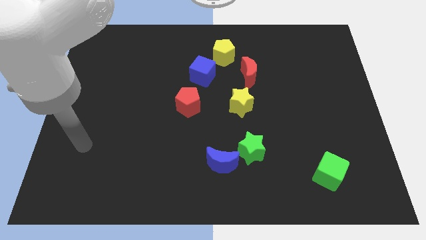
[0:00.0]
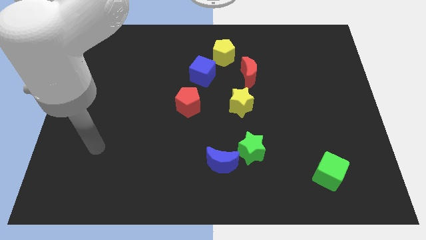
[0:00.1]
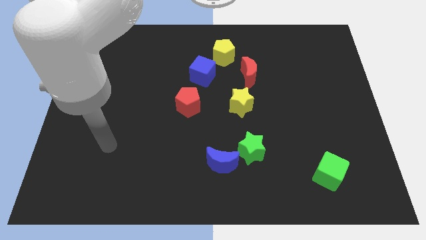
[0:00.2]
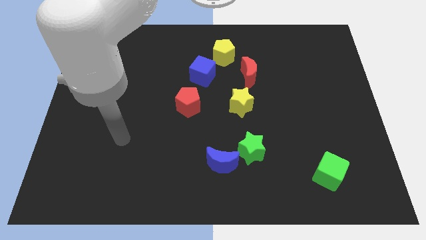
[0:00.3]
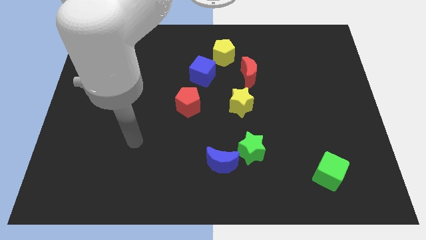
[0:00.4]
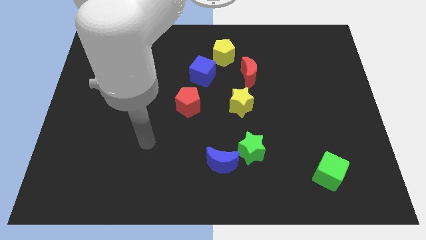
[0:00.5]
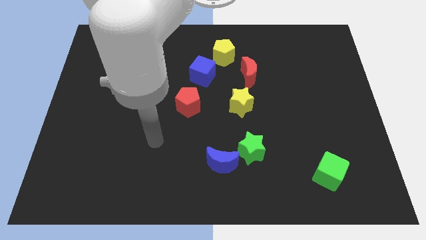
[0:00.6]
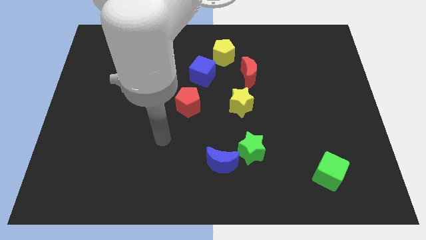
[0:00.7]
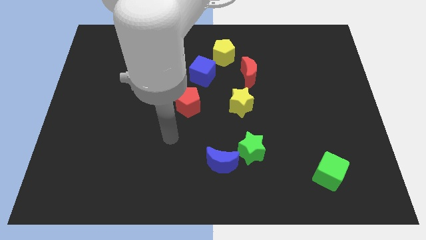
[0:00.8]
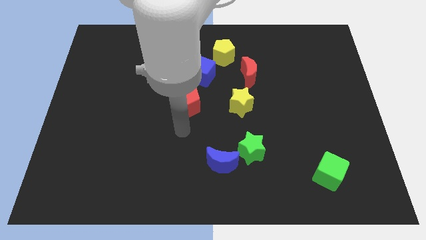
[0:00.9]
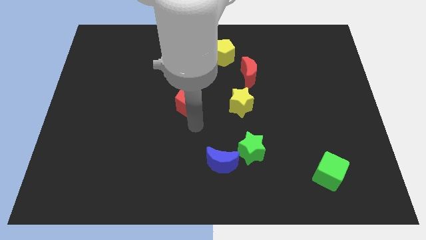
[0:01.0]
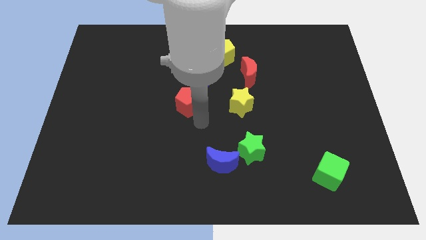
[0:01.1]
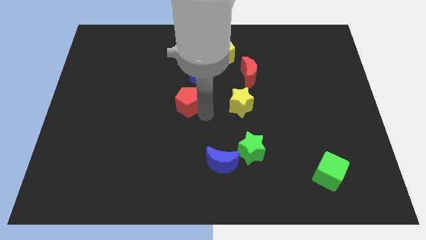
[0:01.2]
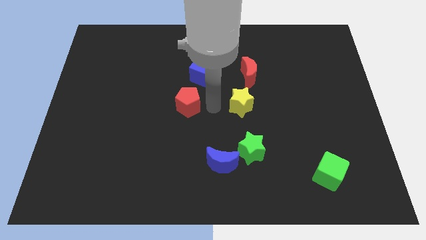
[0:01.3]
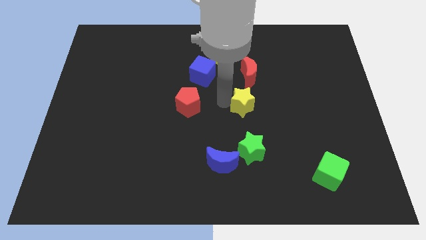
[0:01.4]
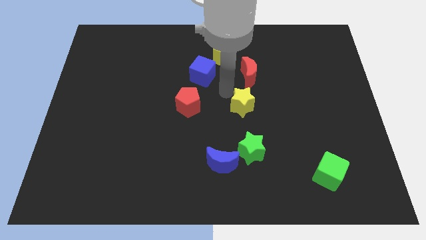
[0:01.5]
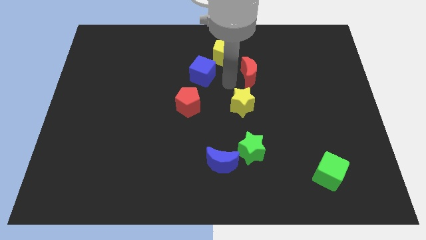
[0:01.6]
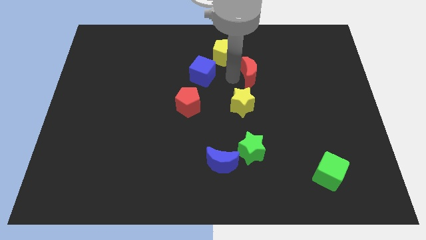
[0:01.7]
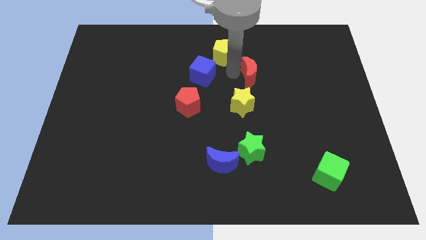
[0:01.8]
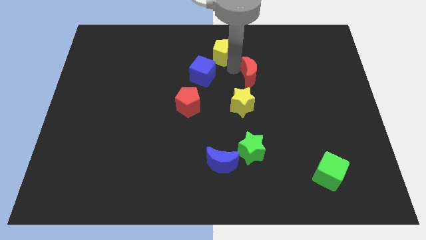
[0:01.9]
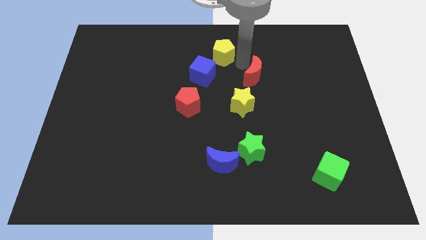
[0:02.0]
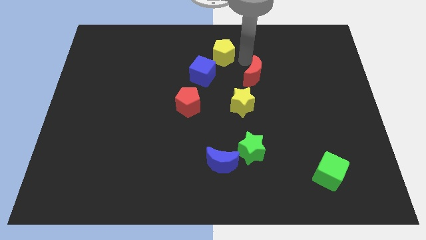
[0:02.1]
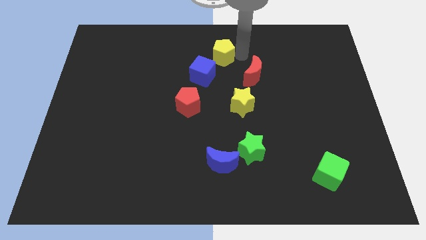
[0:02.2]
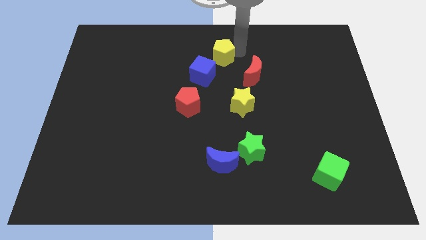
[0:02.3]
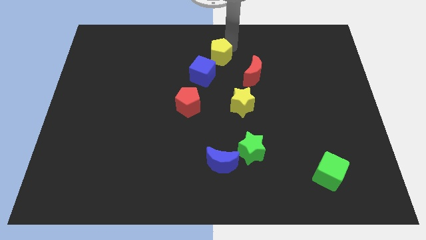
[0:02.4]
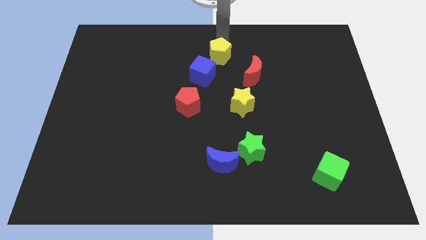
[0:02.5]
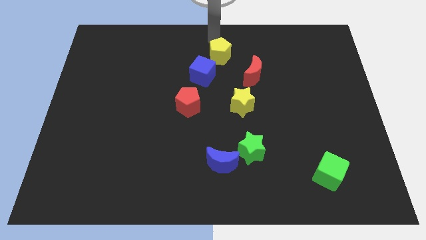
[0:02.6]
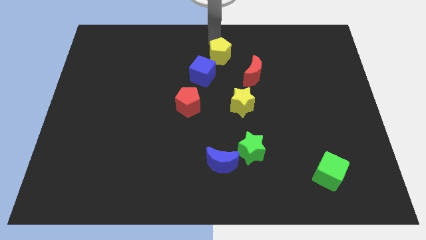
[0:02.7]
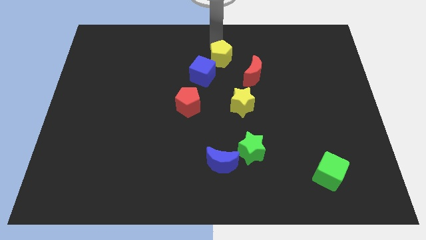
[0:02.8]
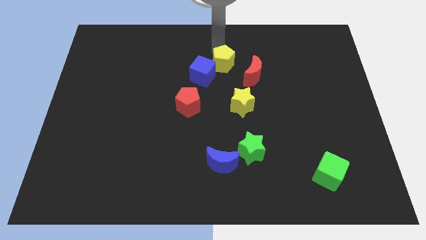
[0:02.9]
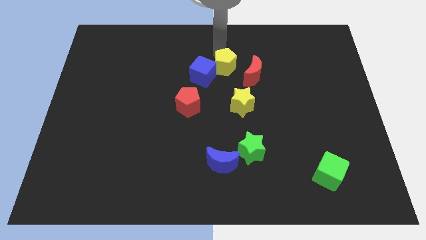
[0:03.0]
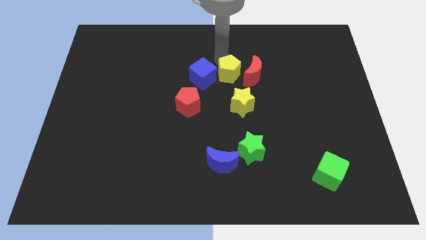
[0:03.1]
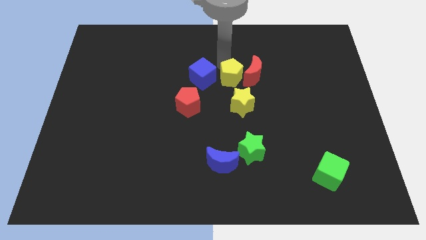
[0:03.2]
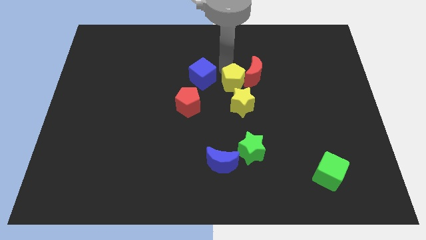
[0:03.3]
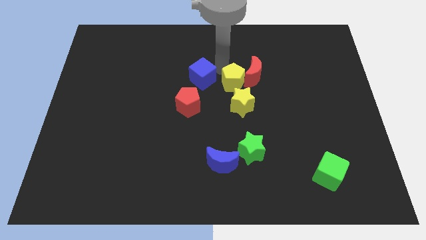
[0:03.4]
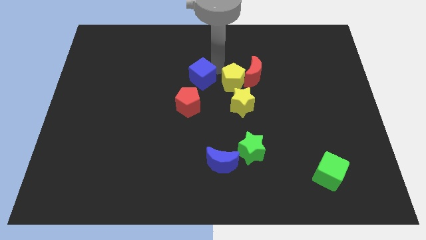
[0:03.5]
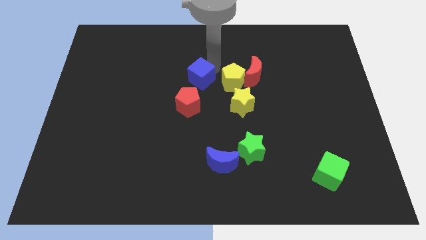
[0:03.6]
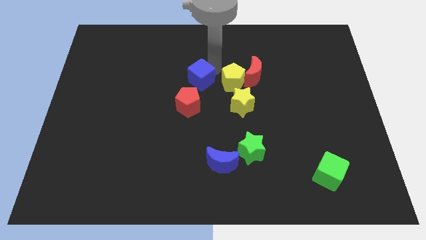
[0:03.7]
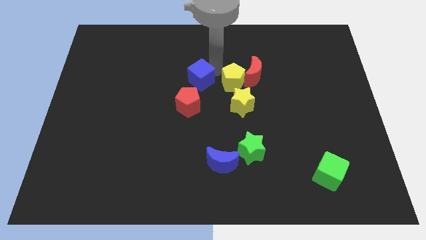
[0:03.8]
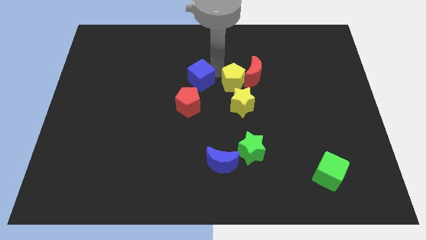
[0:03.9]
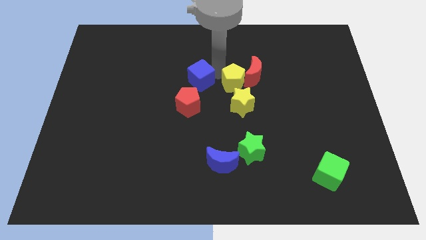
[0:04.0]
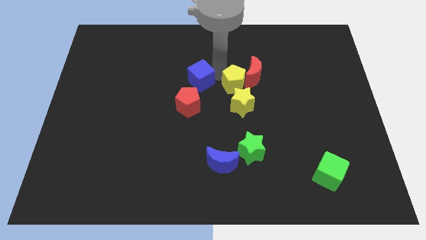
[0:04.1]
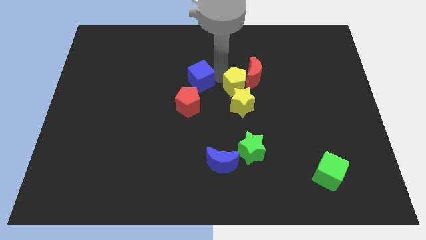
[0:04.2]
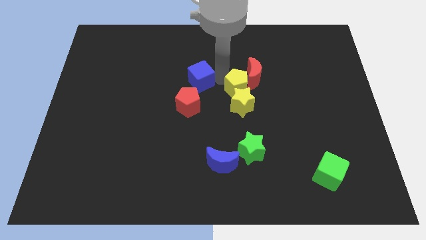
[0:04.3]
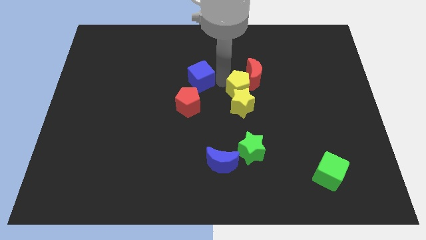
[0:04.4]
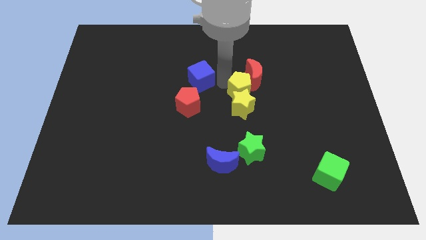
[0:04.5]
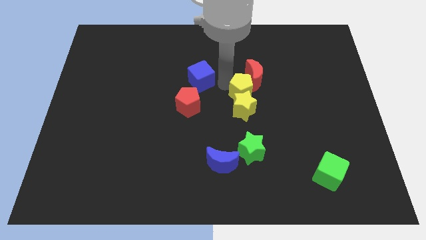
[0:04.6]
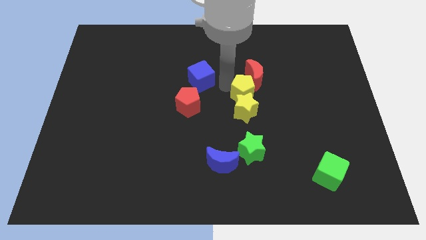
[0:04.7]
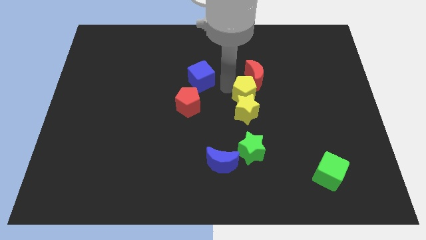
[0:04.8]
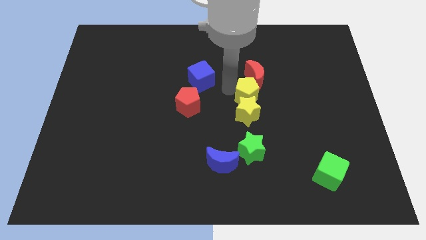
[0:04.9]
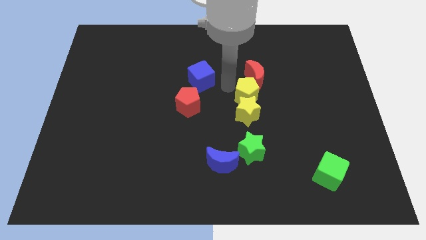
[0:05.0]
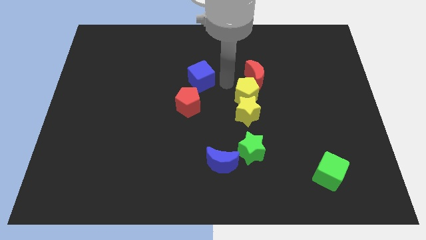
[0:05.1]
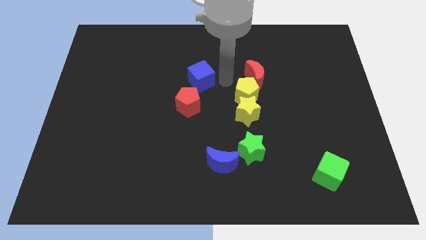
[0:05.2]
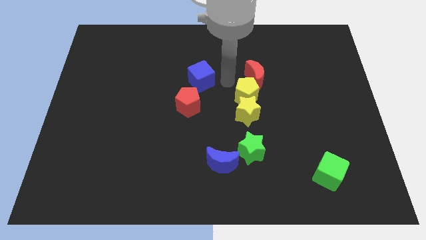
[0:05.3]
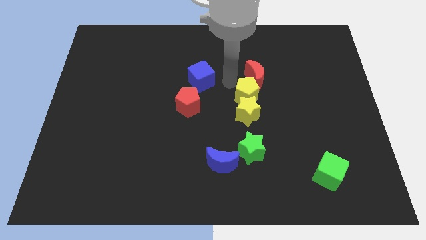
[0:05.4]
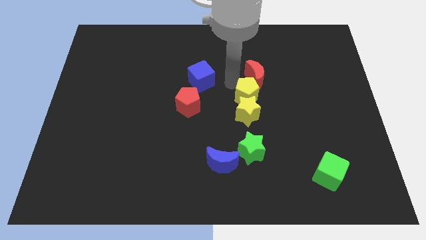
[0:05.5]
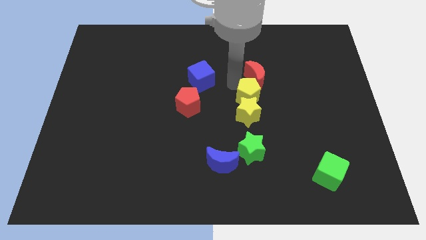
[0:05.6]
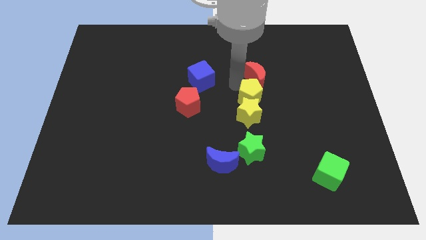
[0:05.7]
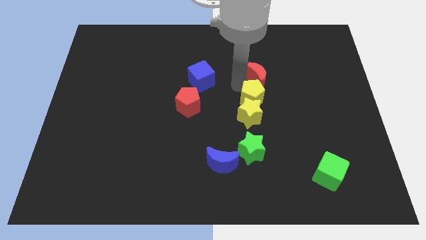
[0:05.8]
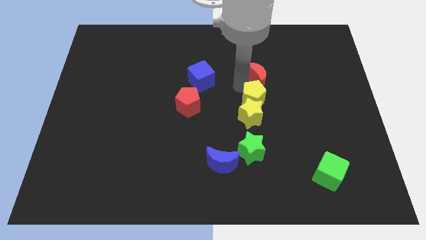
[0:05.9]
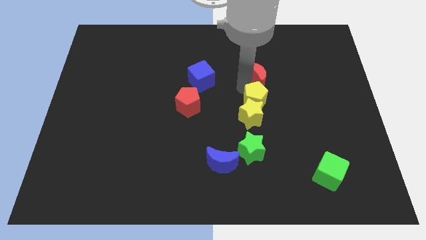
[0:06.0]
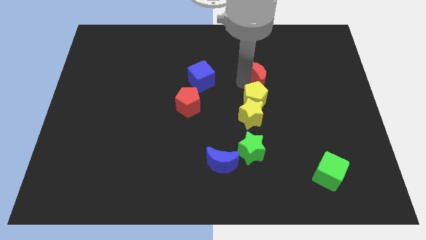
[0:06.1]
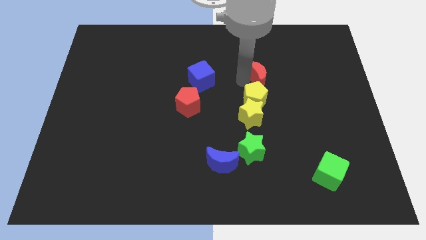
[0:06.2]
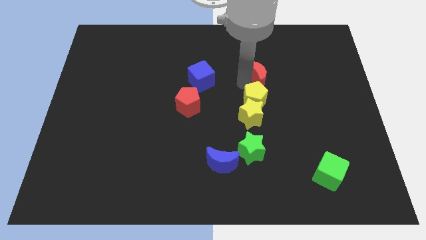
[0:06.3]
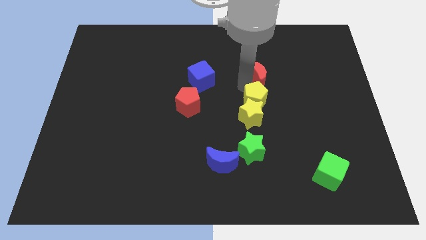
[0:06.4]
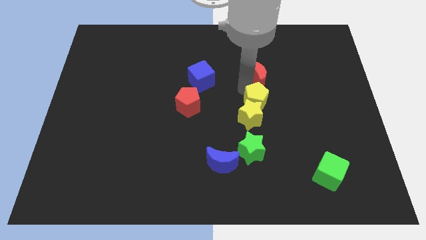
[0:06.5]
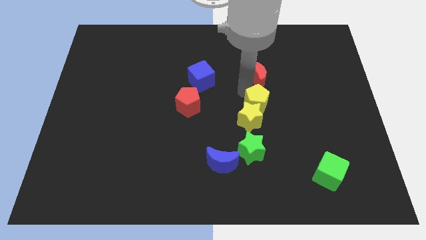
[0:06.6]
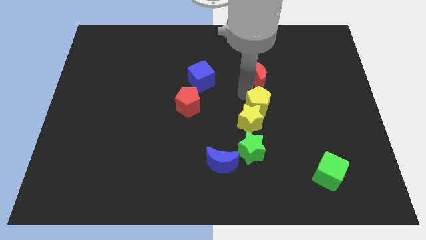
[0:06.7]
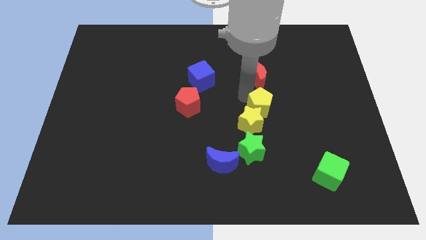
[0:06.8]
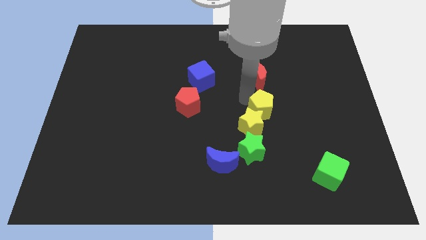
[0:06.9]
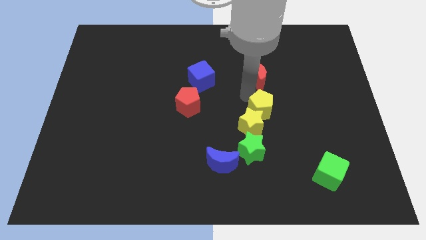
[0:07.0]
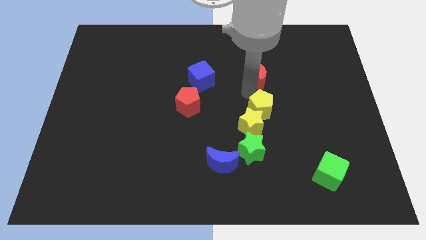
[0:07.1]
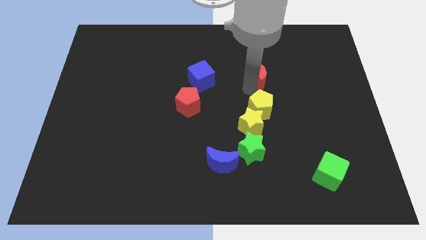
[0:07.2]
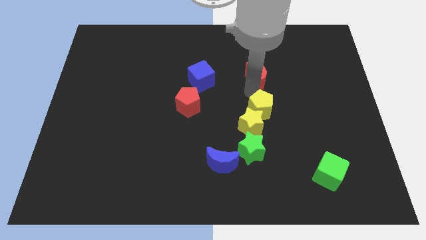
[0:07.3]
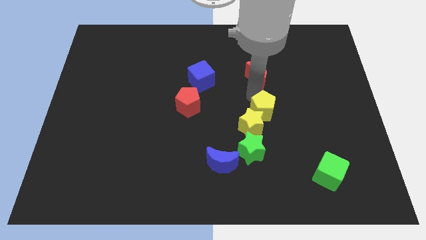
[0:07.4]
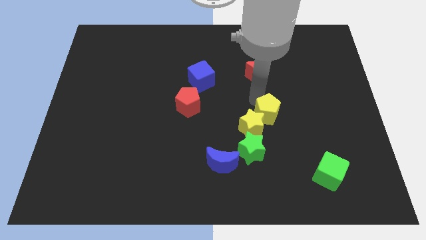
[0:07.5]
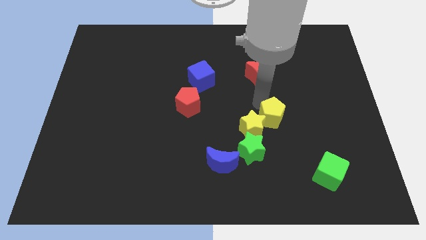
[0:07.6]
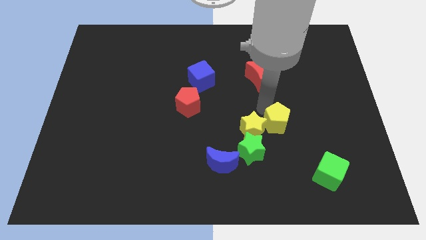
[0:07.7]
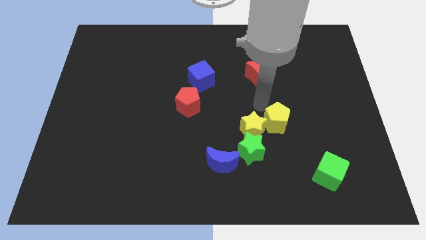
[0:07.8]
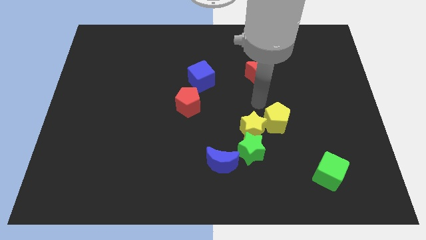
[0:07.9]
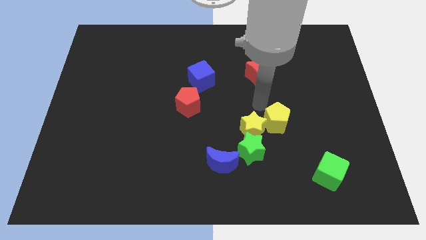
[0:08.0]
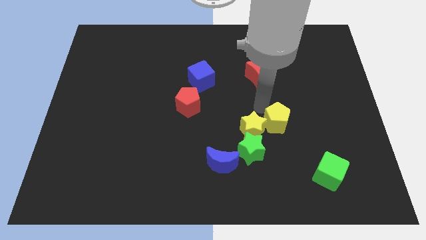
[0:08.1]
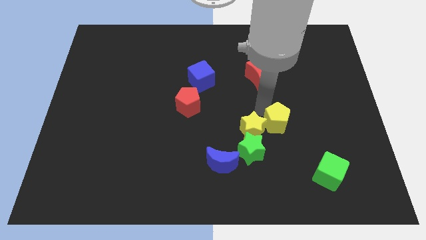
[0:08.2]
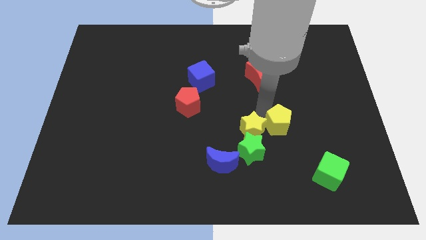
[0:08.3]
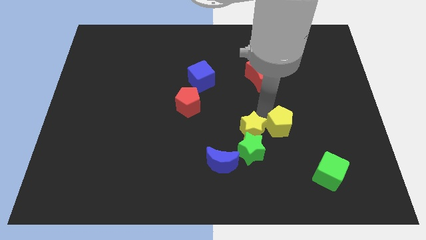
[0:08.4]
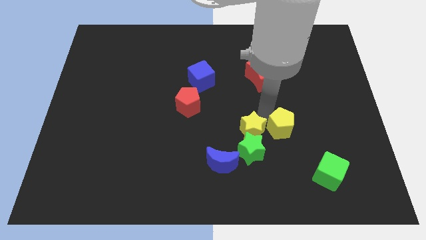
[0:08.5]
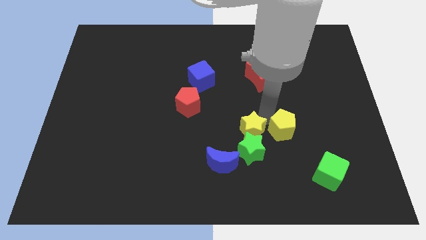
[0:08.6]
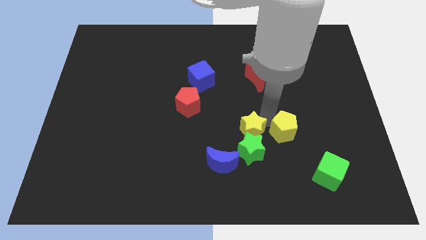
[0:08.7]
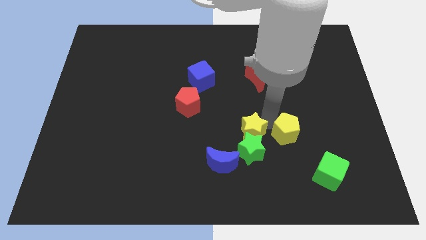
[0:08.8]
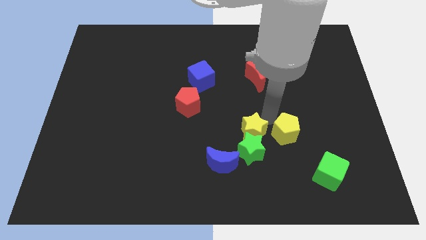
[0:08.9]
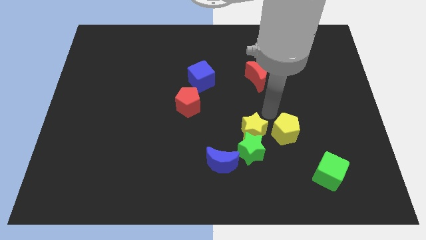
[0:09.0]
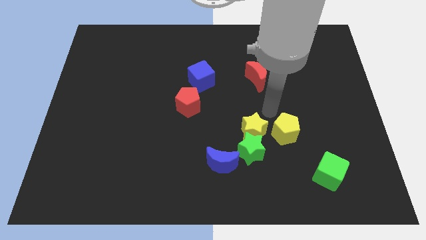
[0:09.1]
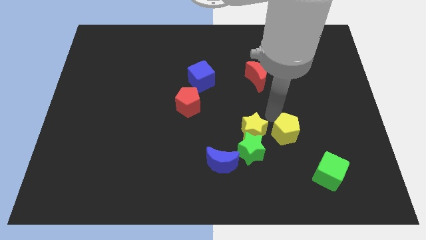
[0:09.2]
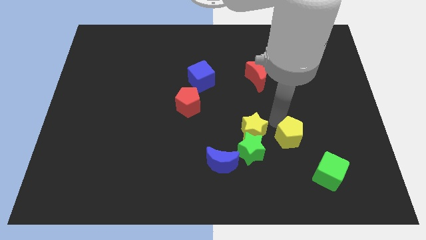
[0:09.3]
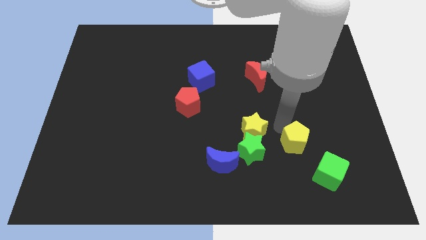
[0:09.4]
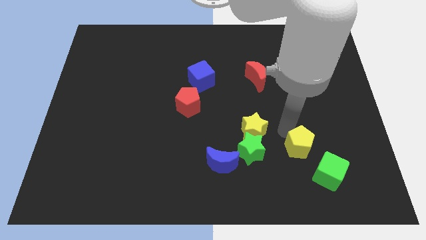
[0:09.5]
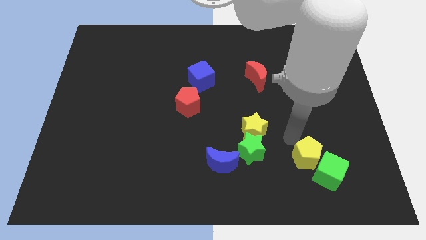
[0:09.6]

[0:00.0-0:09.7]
put the yellow pentagon close to the green cube
